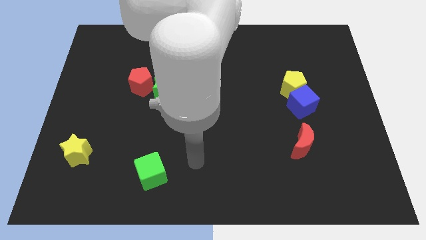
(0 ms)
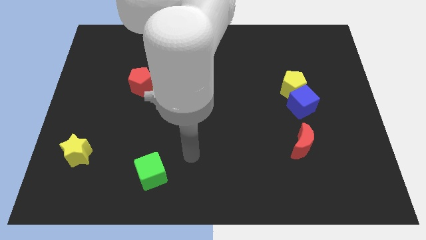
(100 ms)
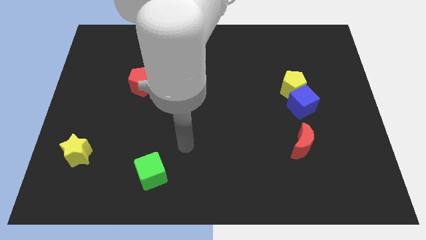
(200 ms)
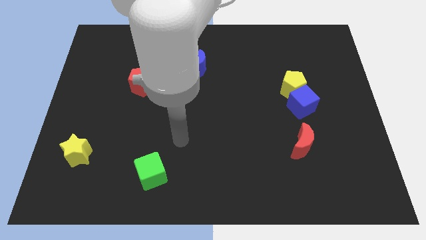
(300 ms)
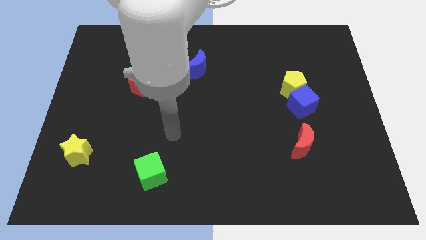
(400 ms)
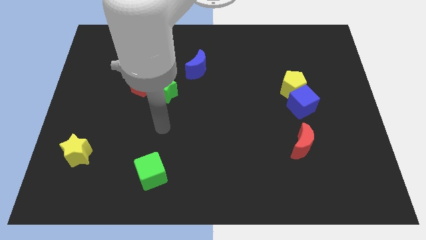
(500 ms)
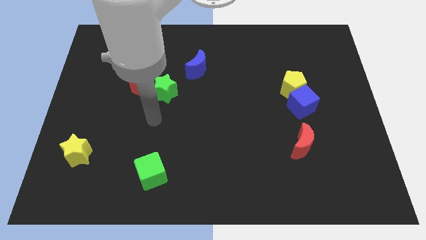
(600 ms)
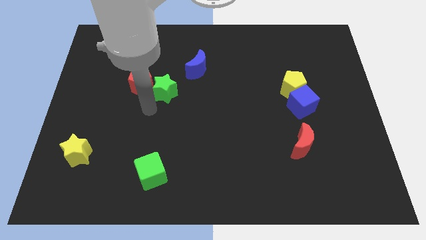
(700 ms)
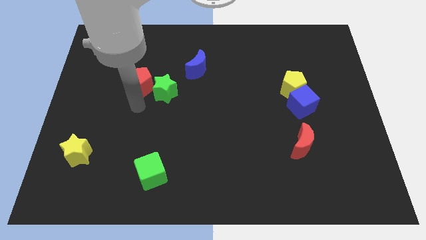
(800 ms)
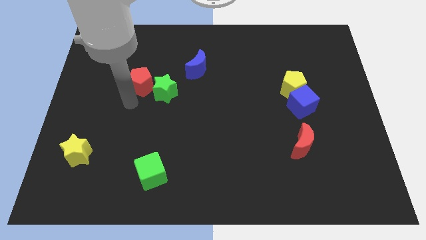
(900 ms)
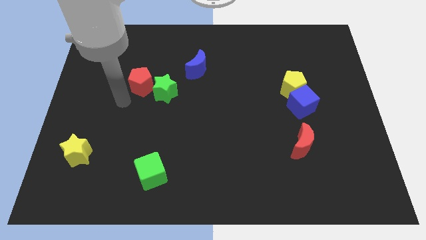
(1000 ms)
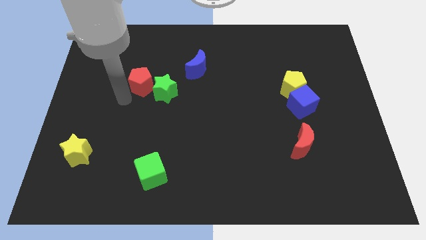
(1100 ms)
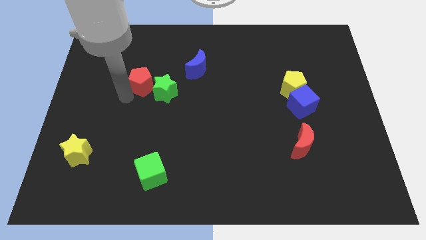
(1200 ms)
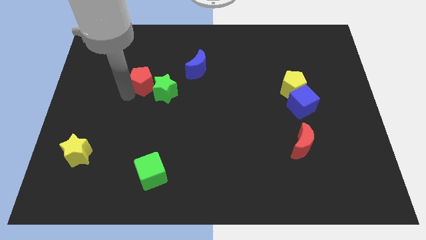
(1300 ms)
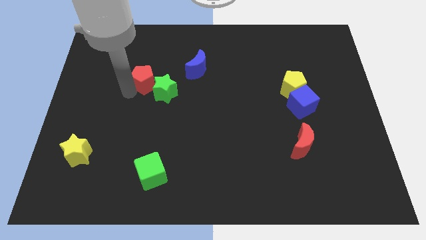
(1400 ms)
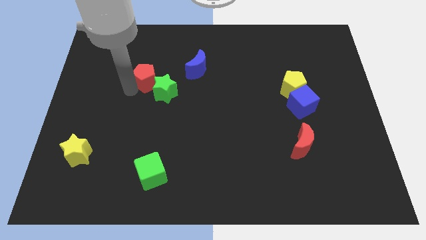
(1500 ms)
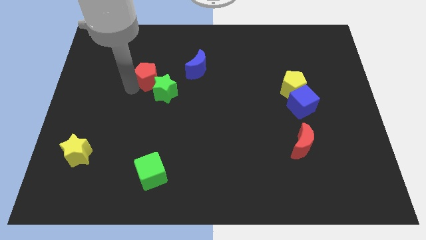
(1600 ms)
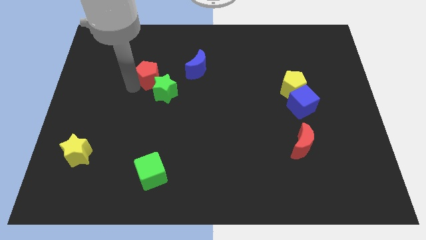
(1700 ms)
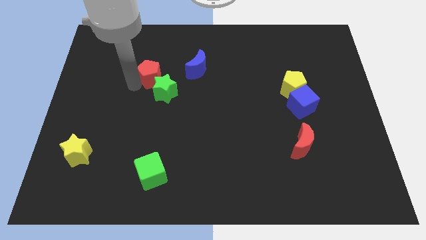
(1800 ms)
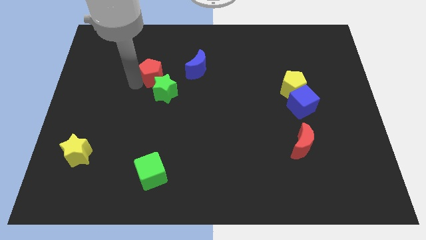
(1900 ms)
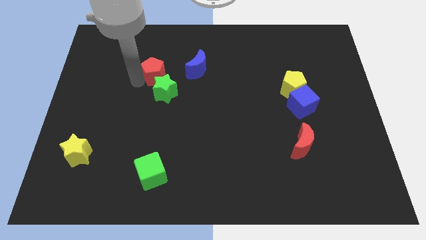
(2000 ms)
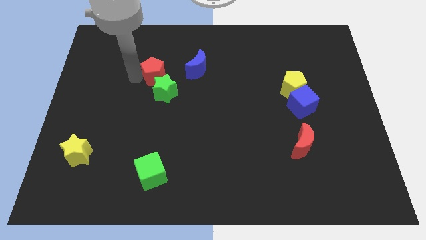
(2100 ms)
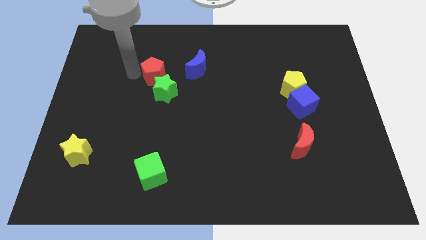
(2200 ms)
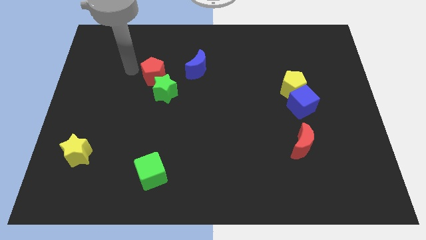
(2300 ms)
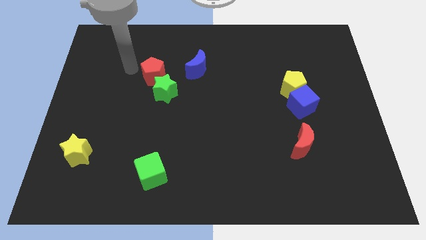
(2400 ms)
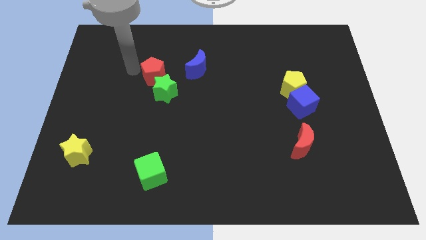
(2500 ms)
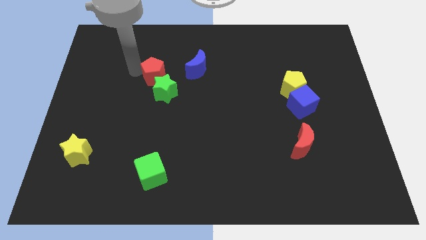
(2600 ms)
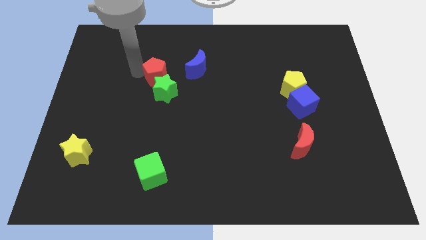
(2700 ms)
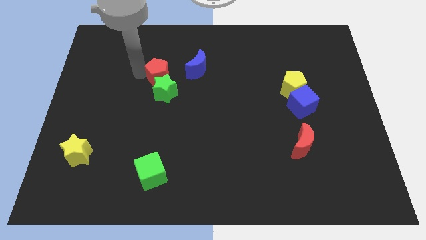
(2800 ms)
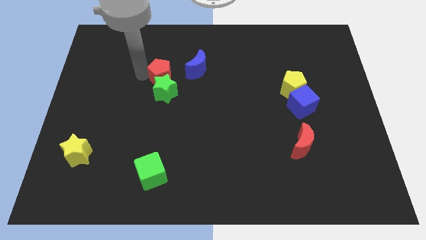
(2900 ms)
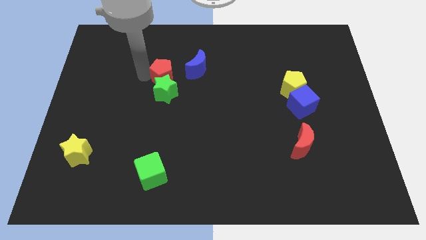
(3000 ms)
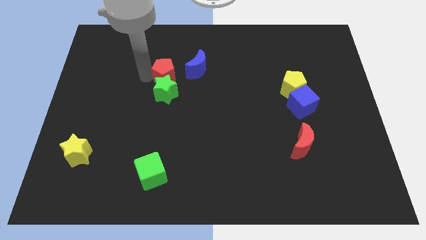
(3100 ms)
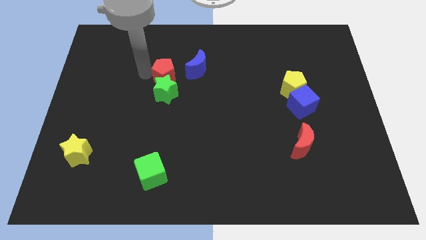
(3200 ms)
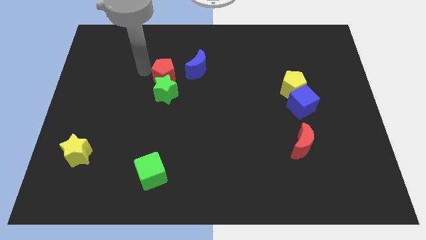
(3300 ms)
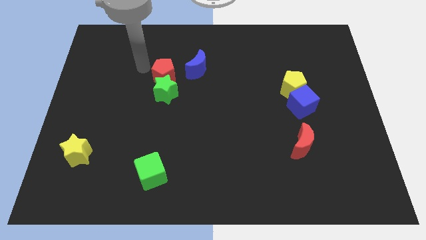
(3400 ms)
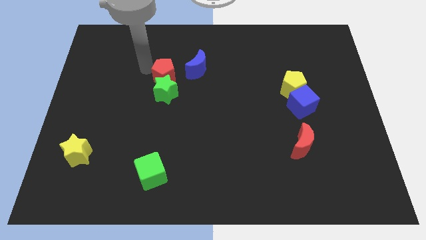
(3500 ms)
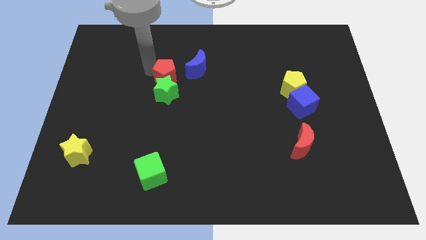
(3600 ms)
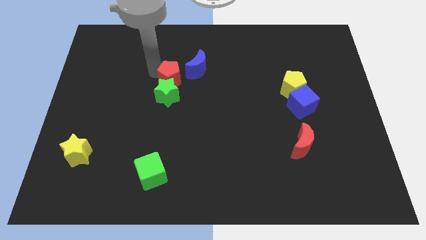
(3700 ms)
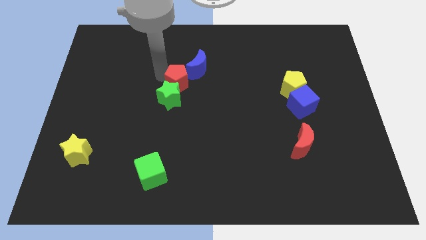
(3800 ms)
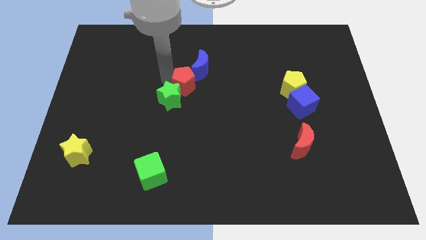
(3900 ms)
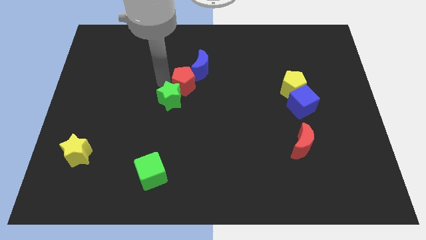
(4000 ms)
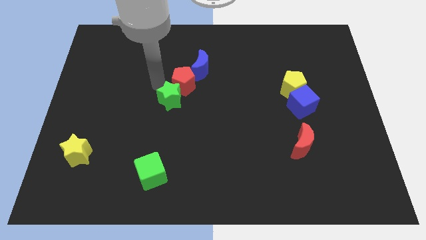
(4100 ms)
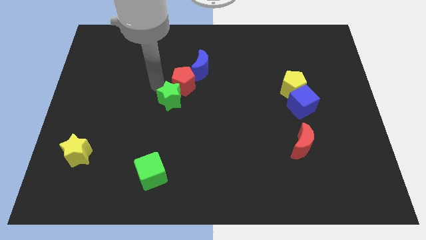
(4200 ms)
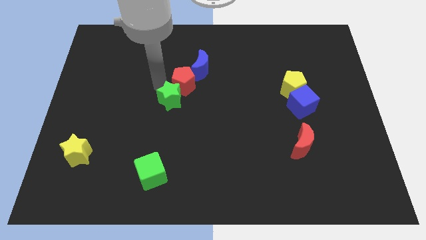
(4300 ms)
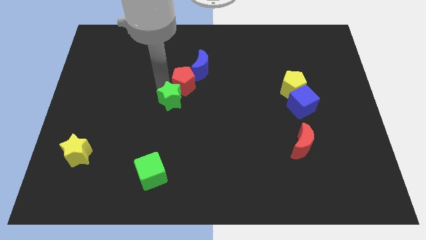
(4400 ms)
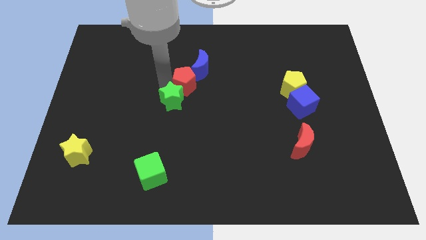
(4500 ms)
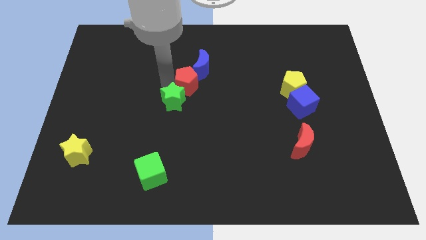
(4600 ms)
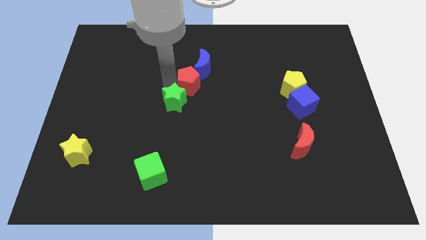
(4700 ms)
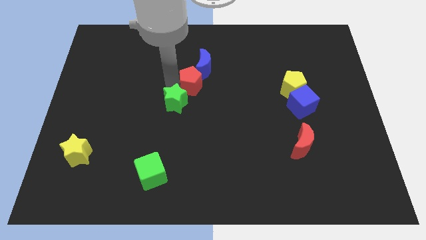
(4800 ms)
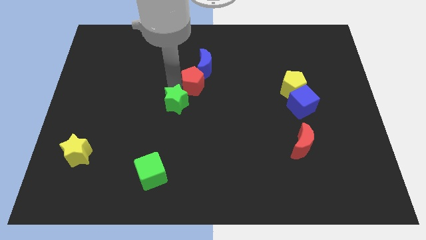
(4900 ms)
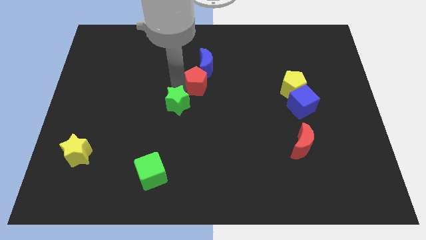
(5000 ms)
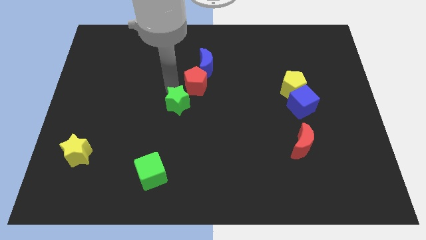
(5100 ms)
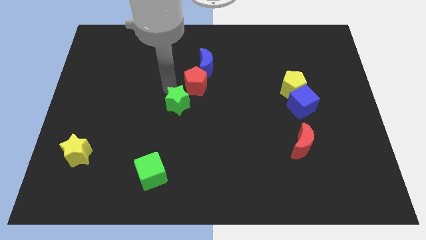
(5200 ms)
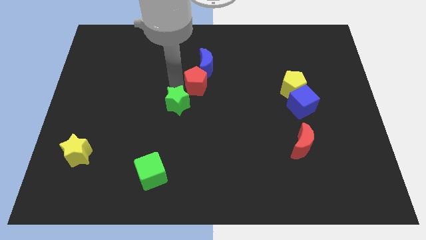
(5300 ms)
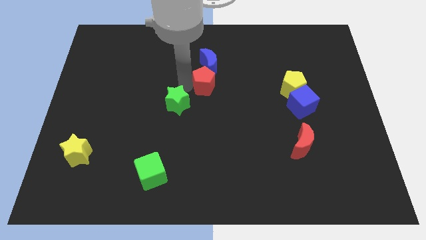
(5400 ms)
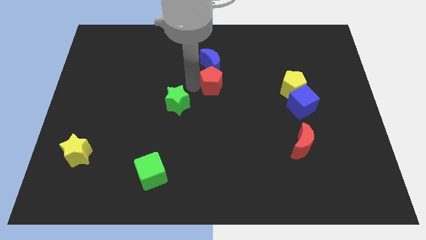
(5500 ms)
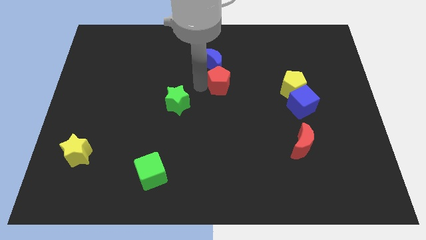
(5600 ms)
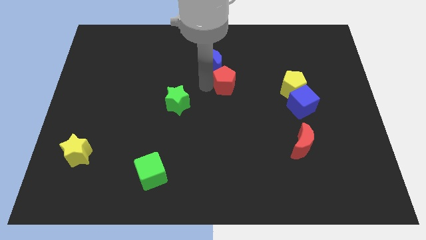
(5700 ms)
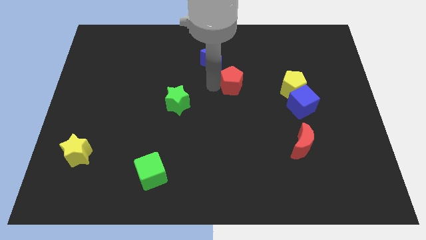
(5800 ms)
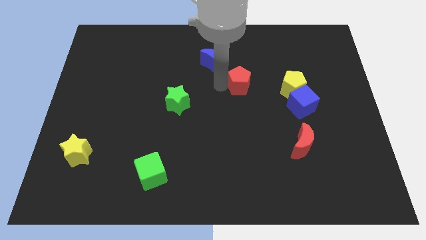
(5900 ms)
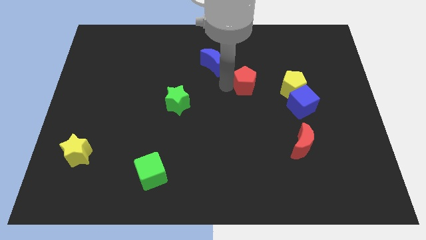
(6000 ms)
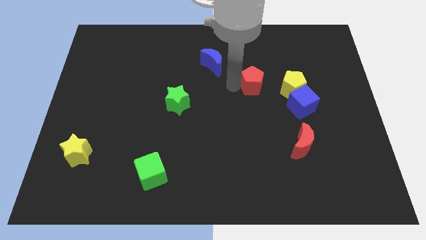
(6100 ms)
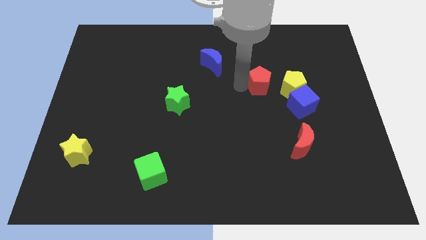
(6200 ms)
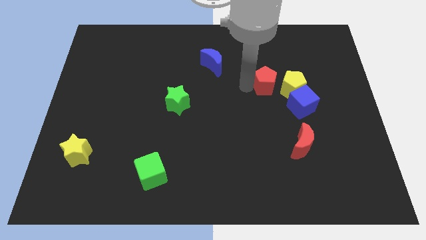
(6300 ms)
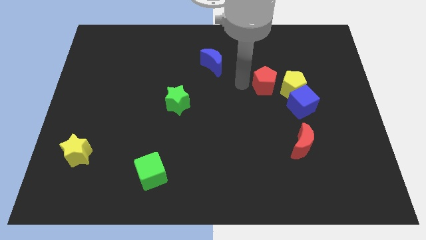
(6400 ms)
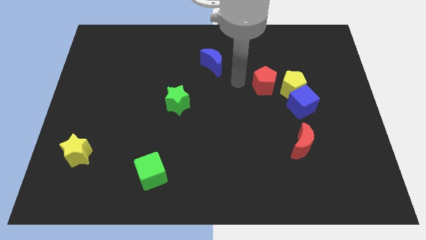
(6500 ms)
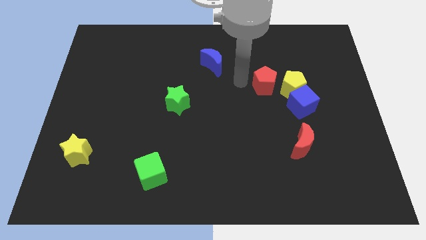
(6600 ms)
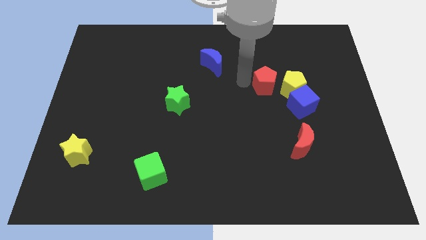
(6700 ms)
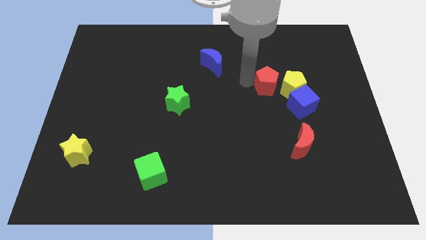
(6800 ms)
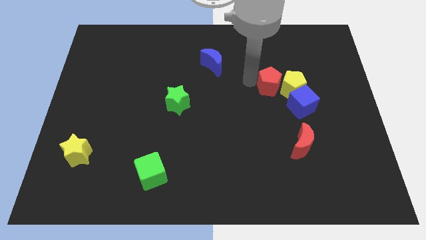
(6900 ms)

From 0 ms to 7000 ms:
put the red pentagon to the yellow pentagon

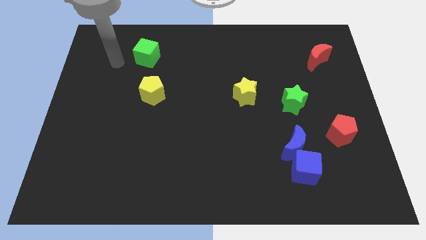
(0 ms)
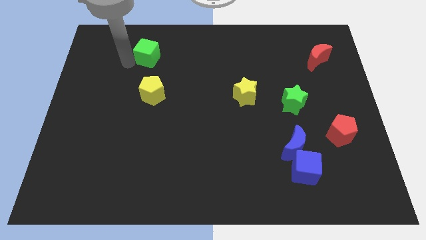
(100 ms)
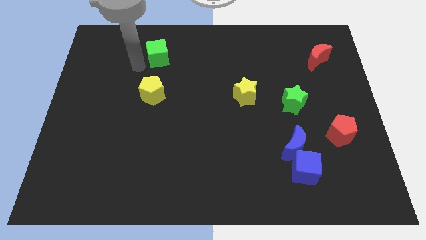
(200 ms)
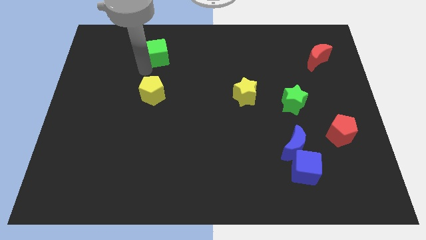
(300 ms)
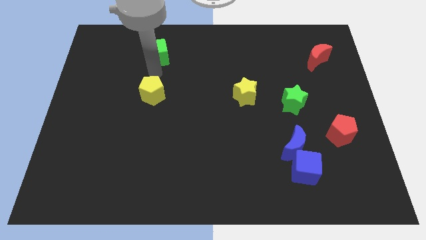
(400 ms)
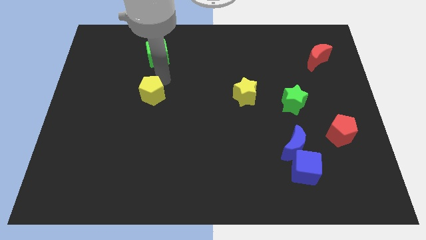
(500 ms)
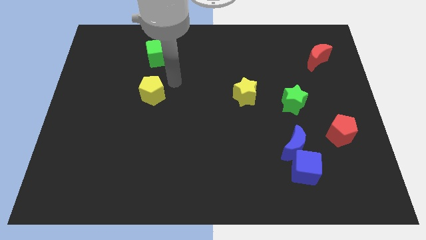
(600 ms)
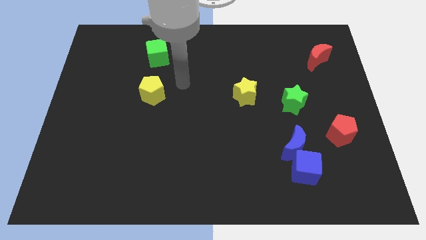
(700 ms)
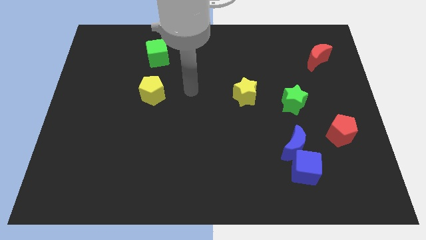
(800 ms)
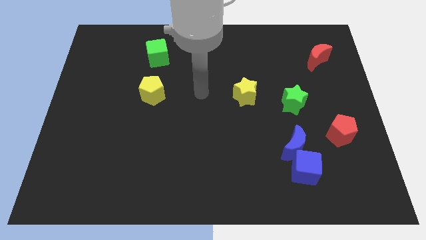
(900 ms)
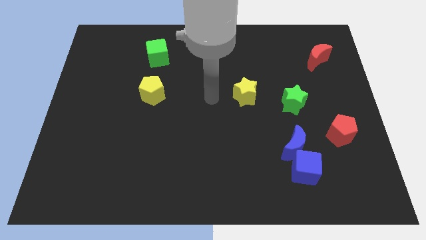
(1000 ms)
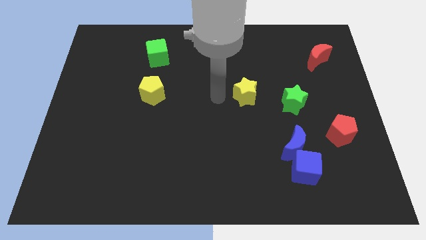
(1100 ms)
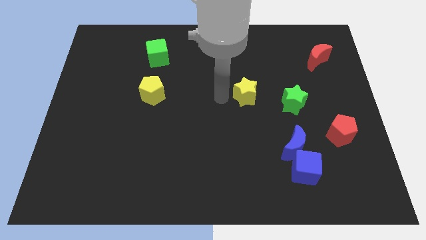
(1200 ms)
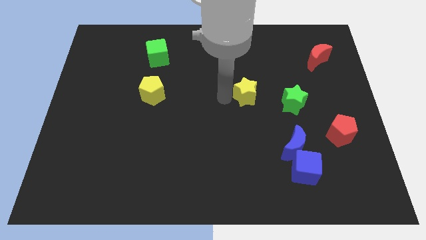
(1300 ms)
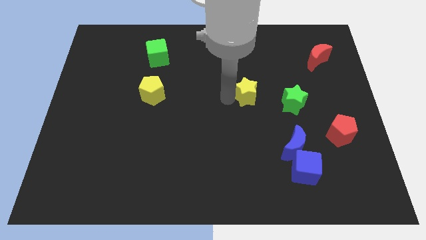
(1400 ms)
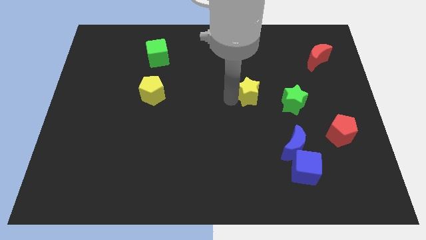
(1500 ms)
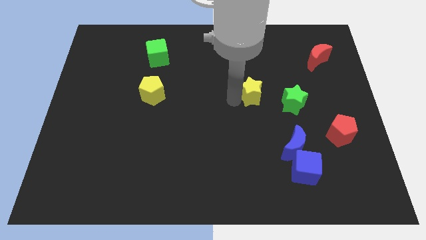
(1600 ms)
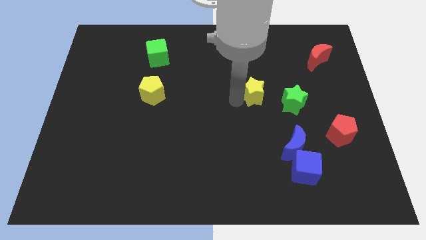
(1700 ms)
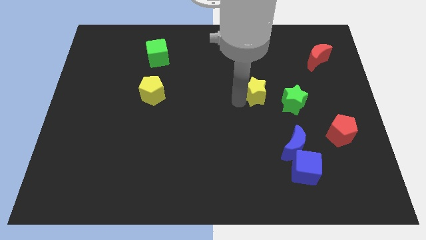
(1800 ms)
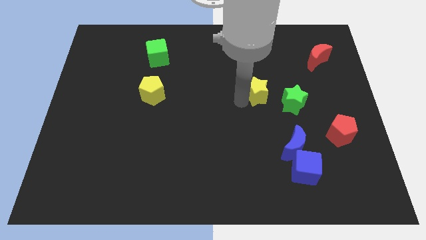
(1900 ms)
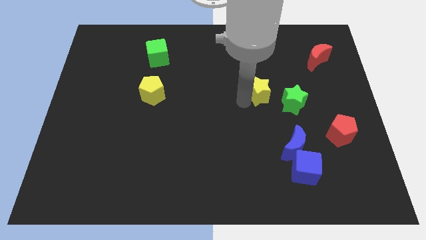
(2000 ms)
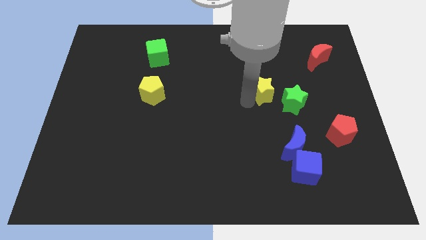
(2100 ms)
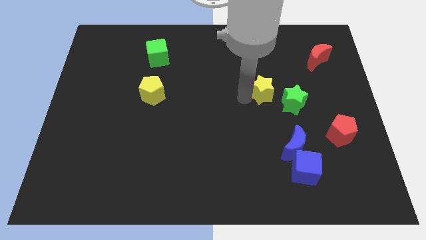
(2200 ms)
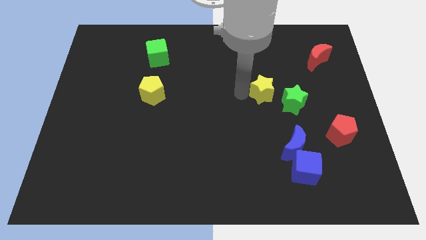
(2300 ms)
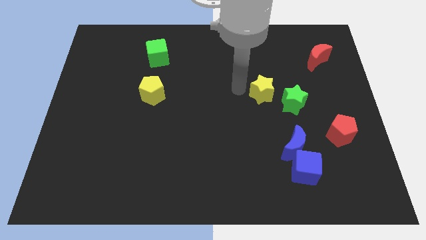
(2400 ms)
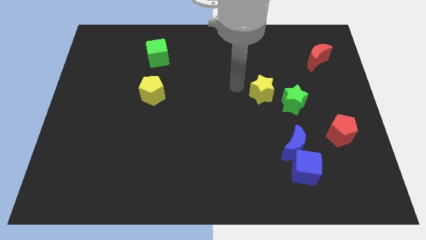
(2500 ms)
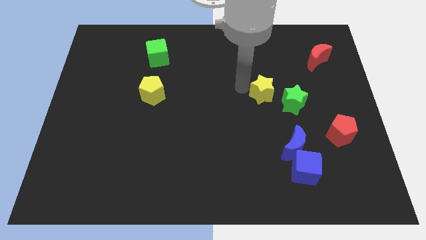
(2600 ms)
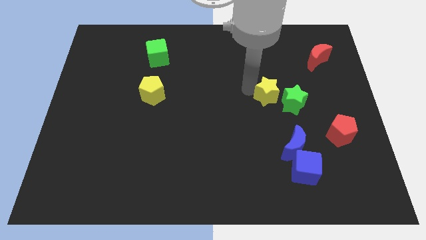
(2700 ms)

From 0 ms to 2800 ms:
slide the yellow star close to the green star
